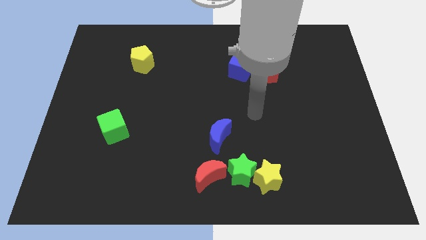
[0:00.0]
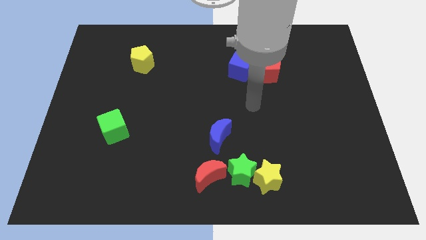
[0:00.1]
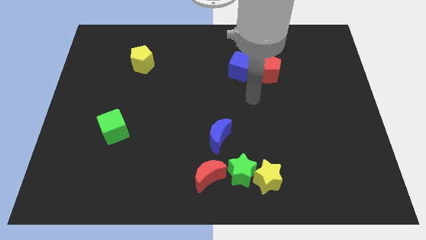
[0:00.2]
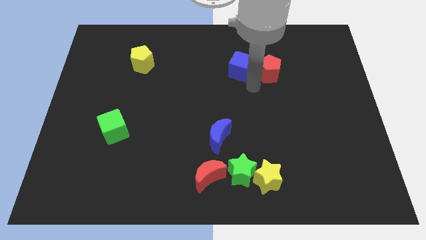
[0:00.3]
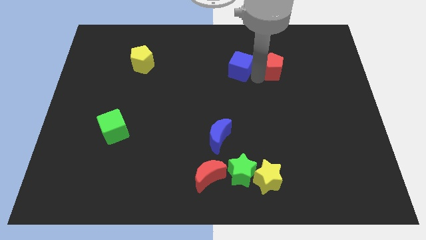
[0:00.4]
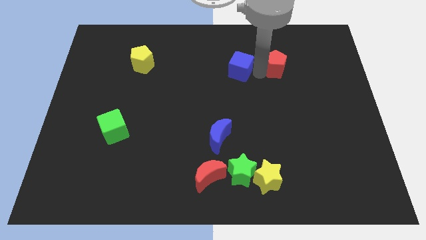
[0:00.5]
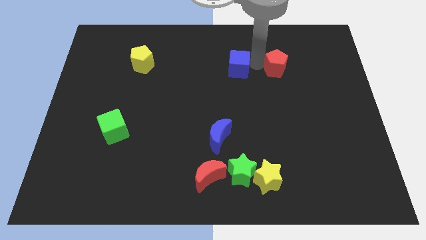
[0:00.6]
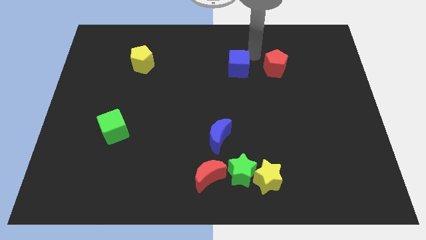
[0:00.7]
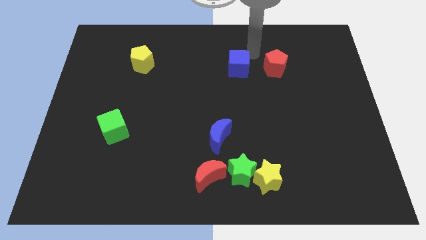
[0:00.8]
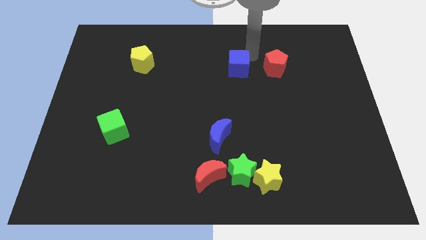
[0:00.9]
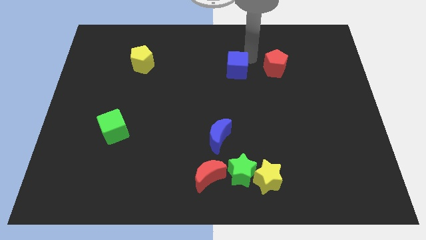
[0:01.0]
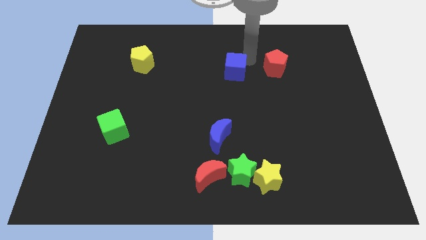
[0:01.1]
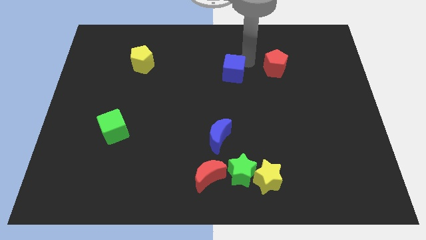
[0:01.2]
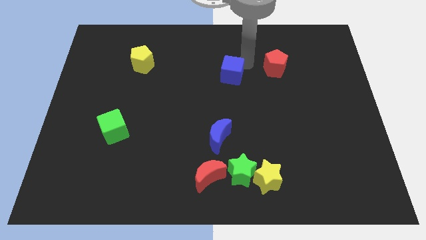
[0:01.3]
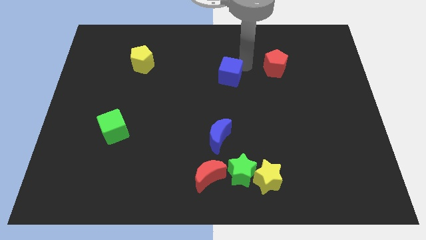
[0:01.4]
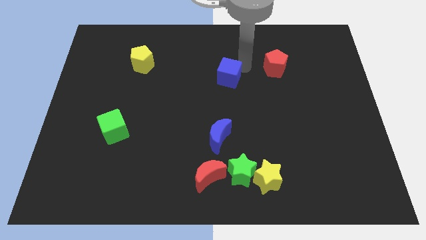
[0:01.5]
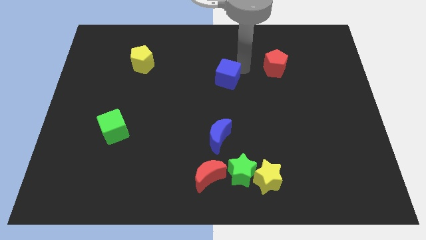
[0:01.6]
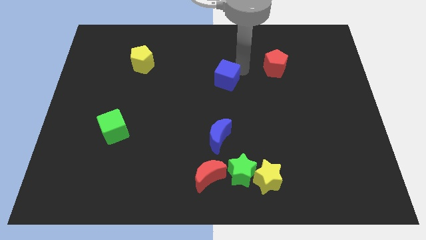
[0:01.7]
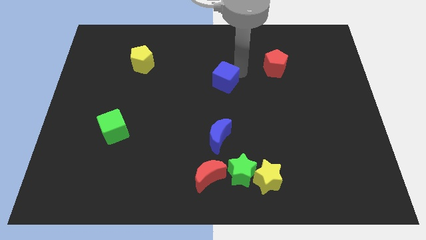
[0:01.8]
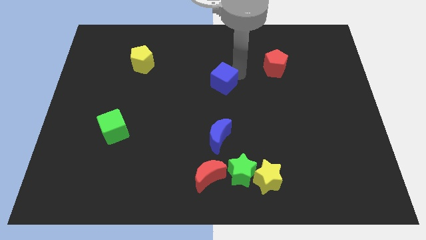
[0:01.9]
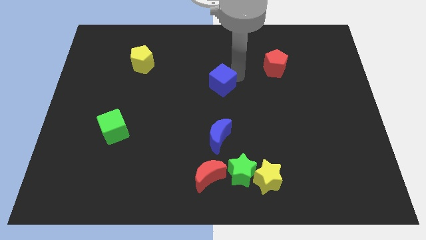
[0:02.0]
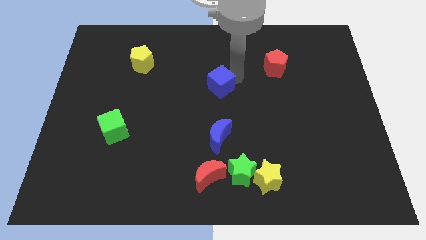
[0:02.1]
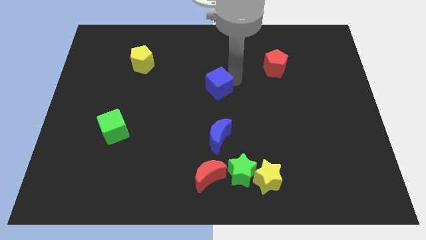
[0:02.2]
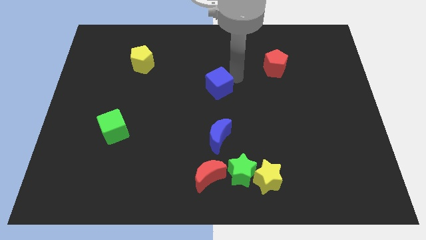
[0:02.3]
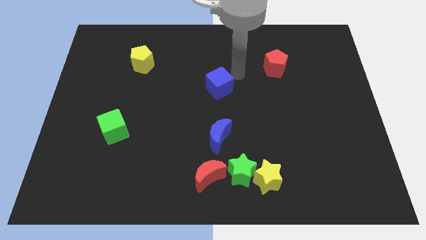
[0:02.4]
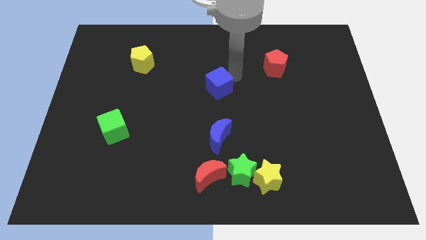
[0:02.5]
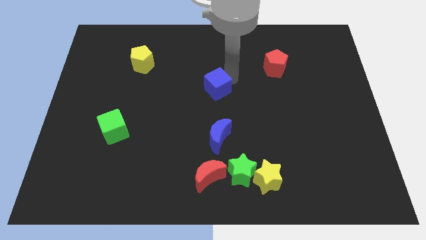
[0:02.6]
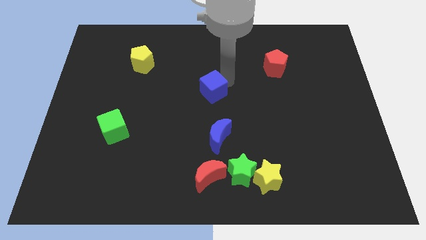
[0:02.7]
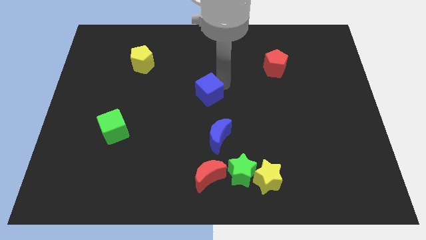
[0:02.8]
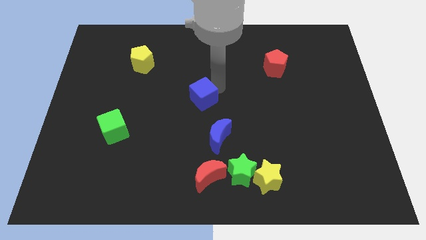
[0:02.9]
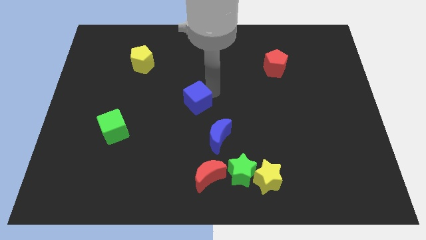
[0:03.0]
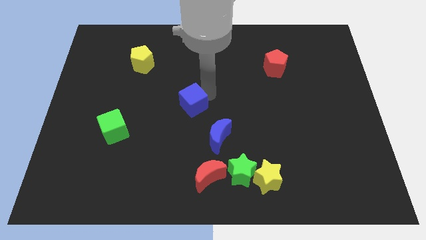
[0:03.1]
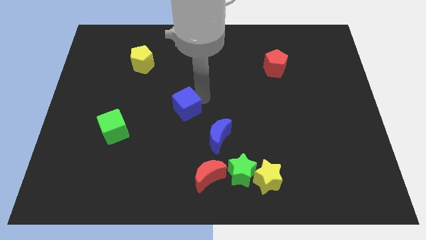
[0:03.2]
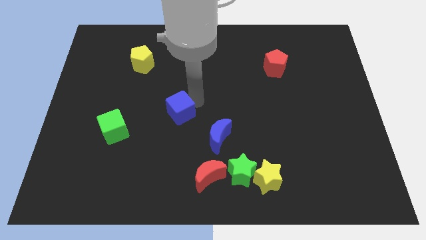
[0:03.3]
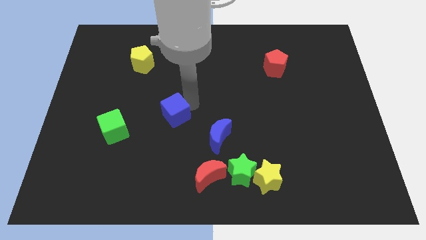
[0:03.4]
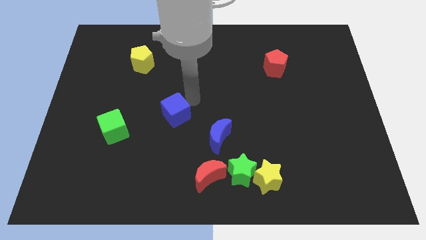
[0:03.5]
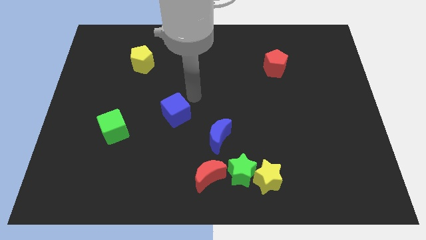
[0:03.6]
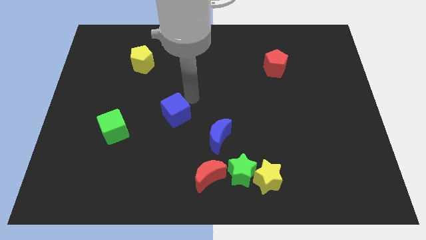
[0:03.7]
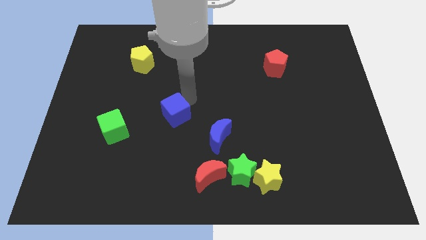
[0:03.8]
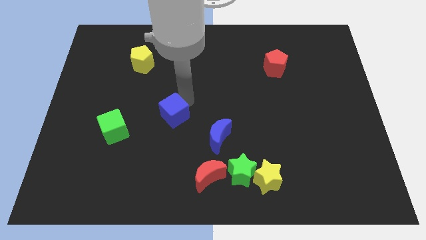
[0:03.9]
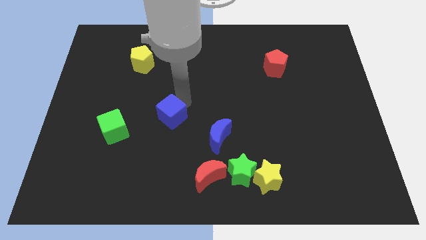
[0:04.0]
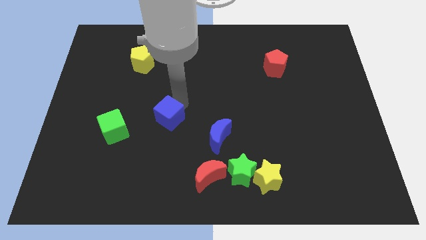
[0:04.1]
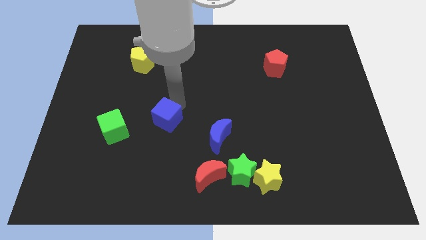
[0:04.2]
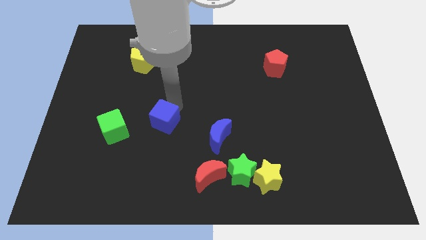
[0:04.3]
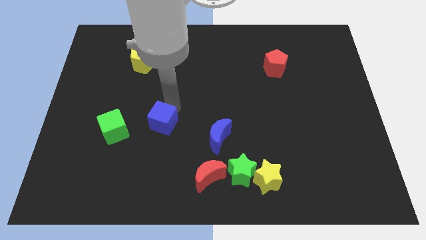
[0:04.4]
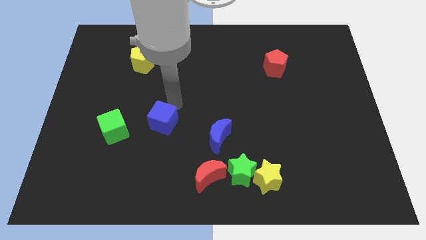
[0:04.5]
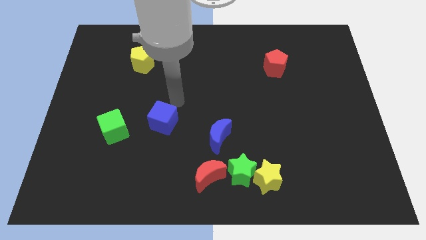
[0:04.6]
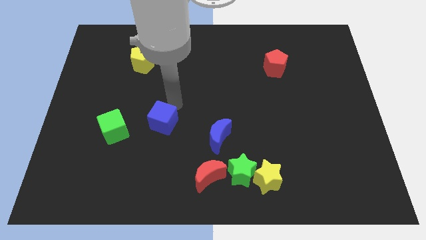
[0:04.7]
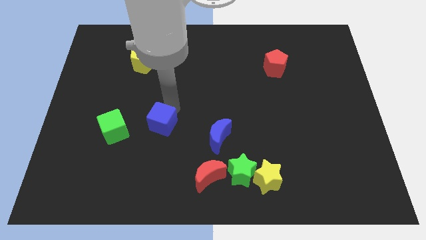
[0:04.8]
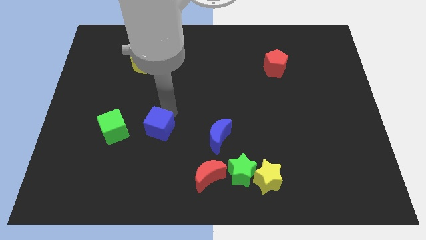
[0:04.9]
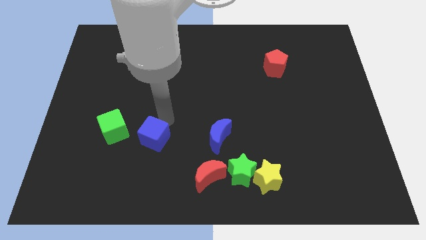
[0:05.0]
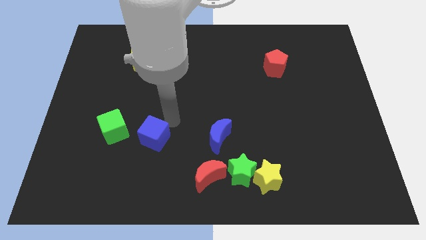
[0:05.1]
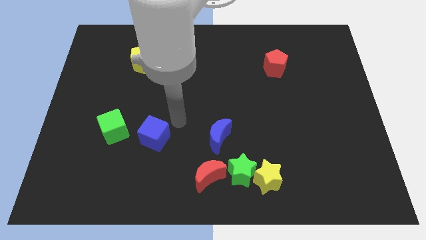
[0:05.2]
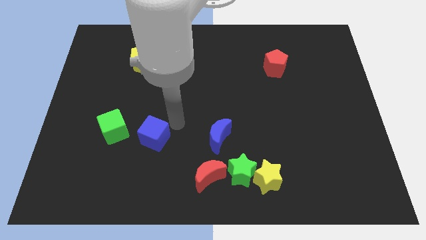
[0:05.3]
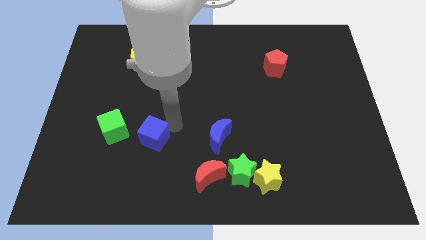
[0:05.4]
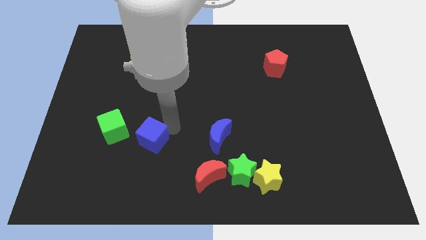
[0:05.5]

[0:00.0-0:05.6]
slide the blue cube to the bottom right of the green cube

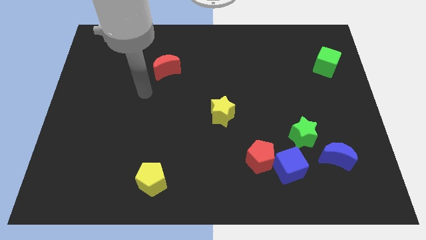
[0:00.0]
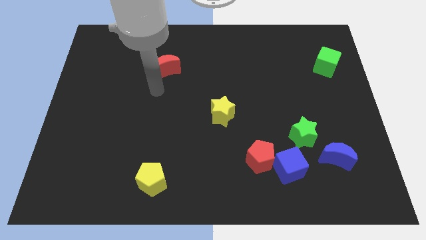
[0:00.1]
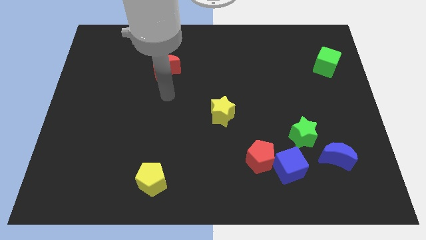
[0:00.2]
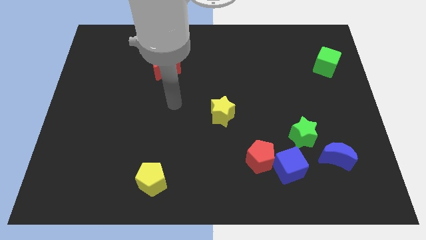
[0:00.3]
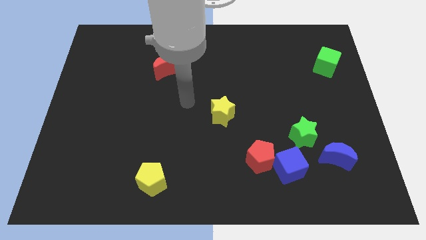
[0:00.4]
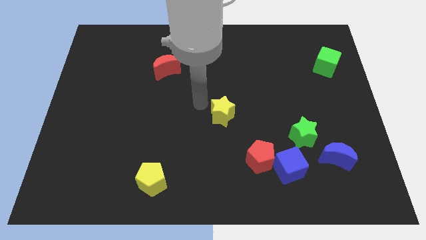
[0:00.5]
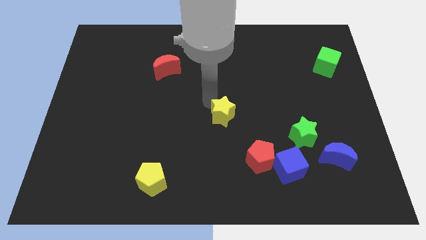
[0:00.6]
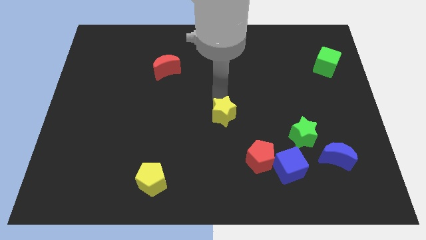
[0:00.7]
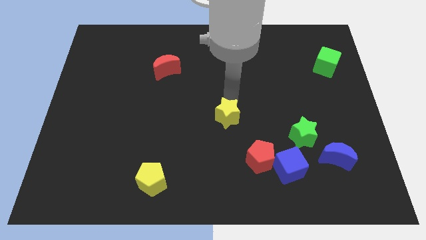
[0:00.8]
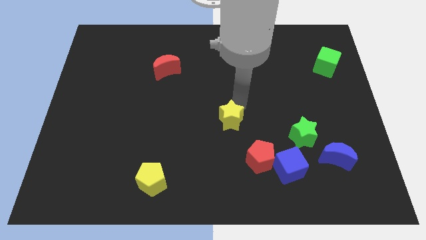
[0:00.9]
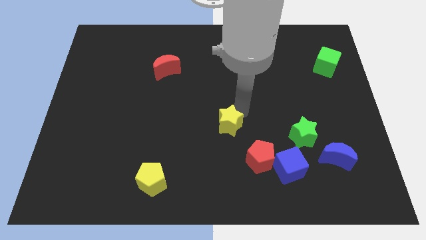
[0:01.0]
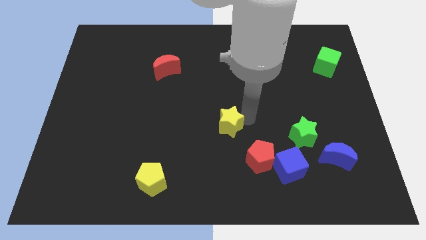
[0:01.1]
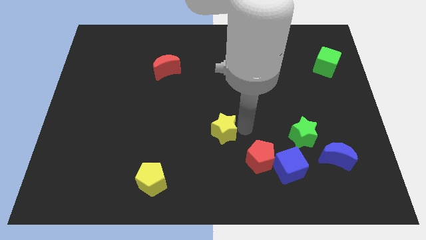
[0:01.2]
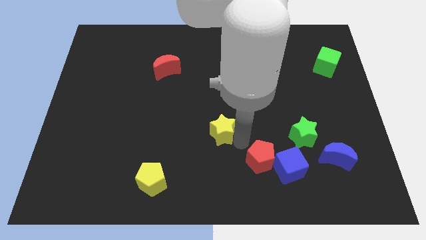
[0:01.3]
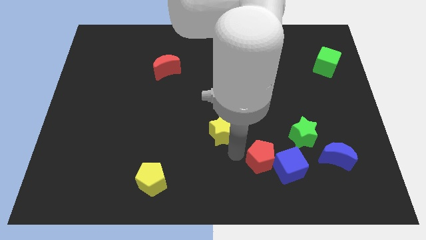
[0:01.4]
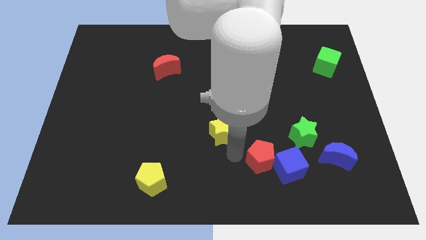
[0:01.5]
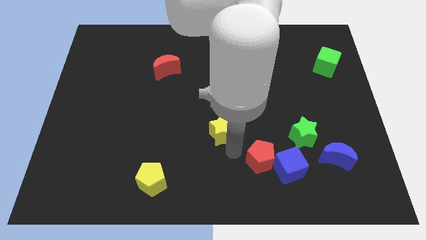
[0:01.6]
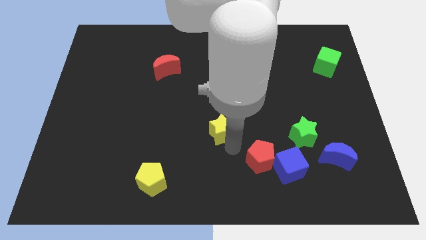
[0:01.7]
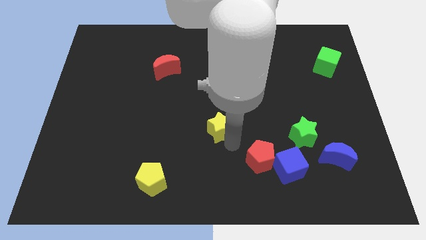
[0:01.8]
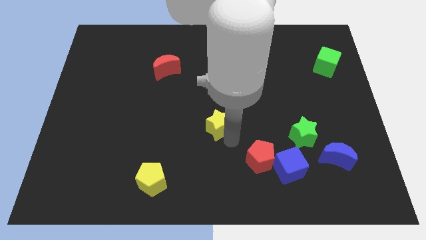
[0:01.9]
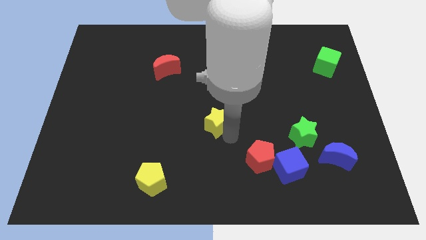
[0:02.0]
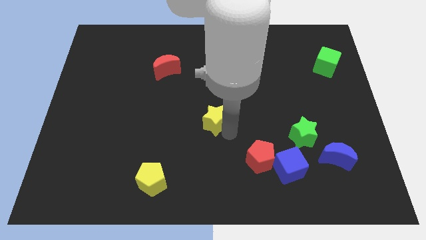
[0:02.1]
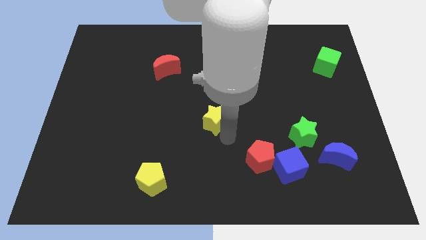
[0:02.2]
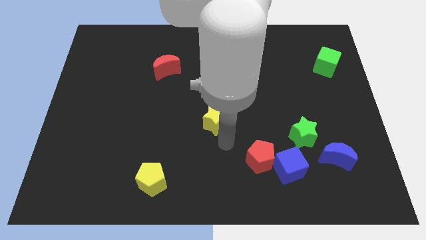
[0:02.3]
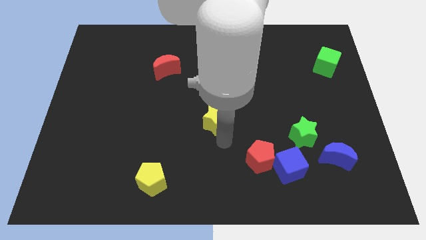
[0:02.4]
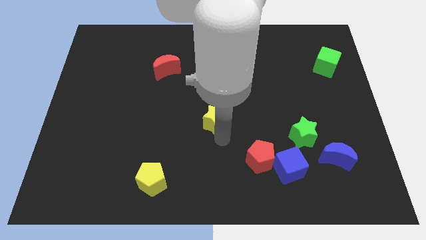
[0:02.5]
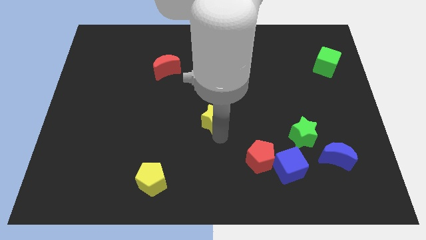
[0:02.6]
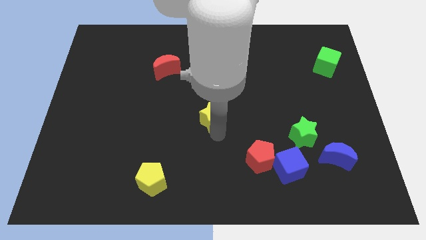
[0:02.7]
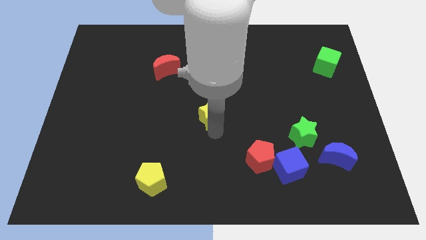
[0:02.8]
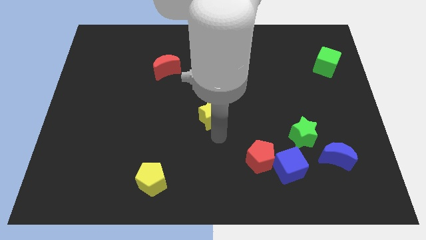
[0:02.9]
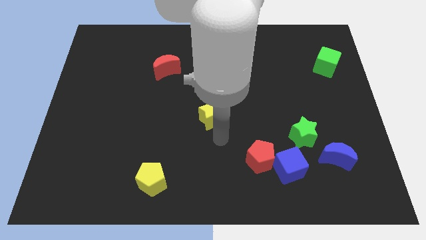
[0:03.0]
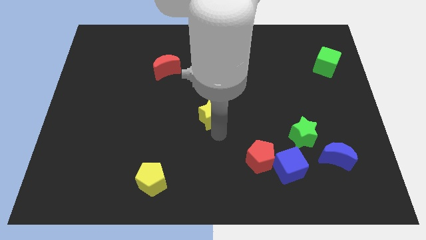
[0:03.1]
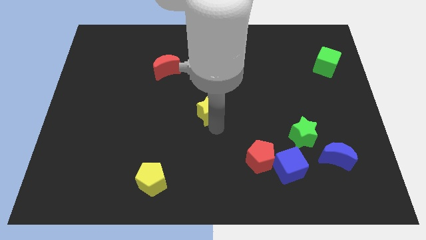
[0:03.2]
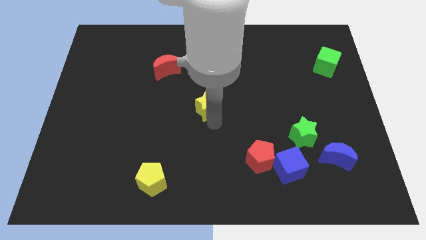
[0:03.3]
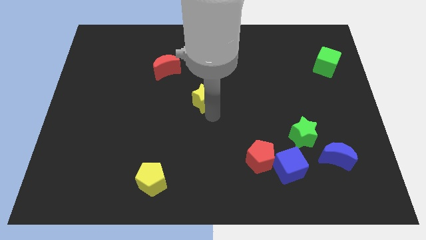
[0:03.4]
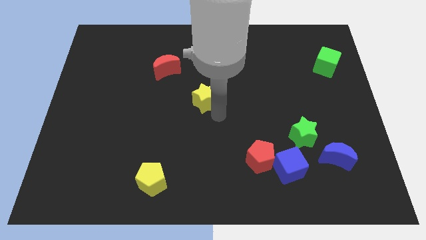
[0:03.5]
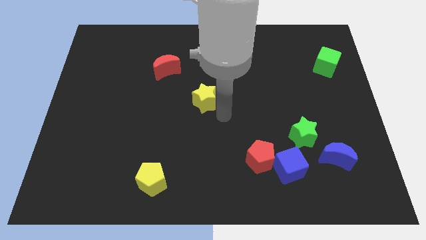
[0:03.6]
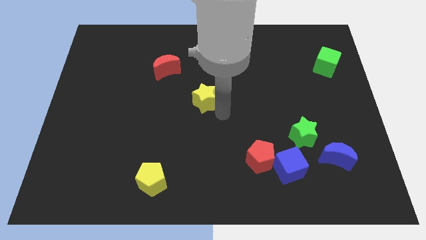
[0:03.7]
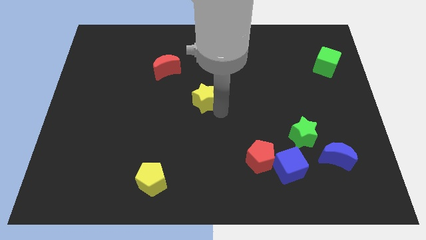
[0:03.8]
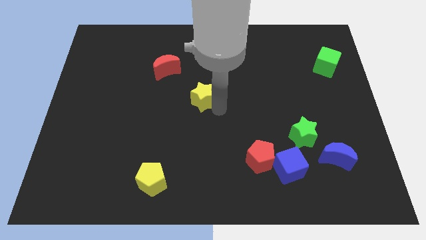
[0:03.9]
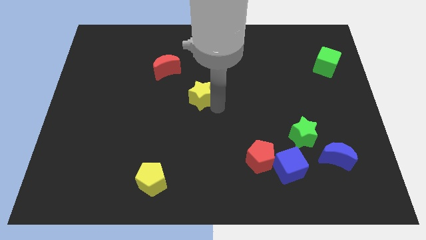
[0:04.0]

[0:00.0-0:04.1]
slide the yellow star to the bottom right side of the red moon
